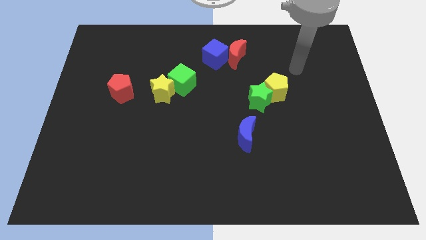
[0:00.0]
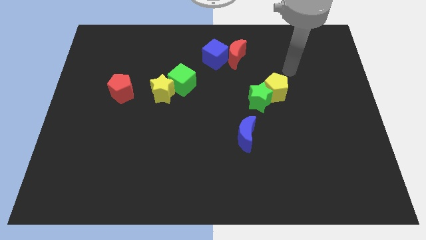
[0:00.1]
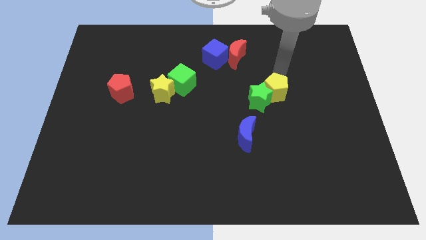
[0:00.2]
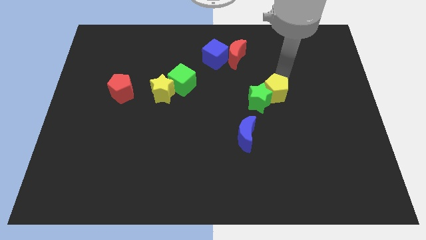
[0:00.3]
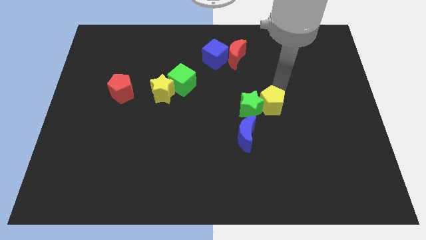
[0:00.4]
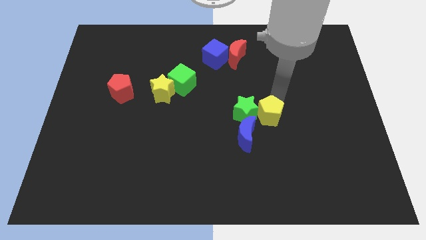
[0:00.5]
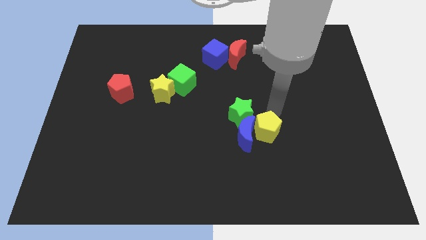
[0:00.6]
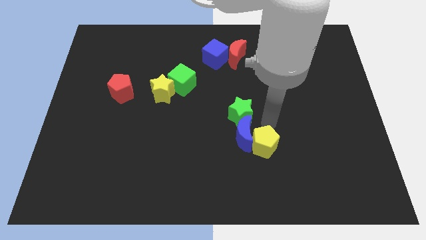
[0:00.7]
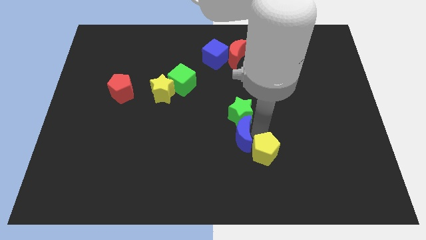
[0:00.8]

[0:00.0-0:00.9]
move the green star away from the yellow pentagon

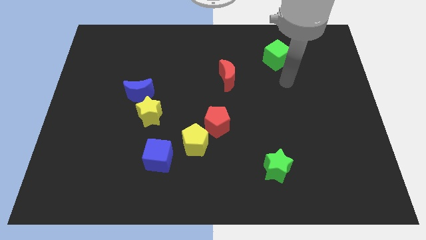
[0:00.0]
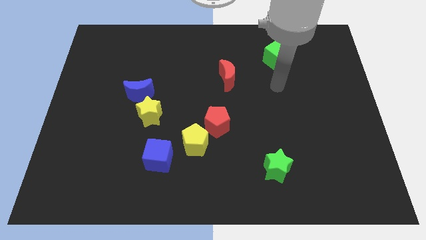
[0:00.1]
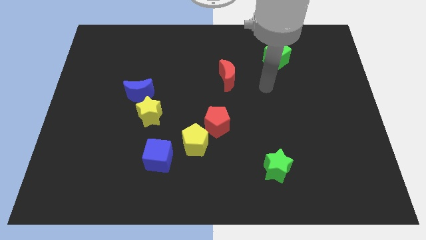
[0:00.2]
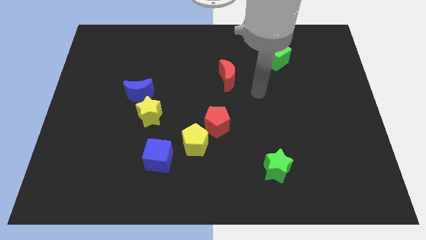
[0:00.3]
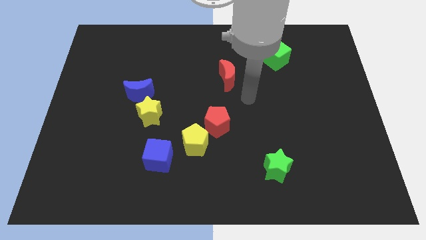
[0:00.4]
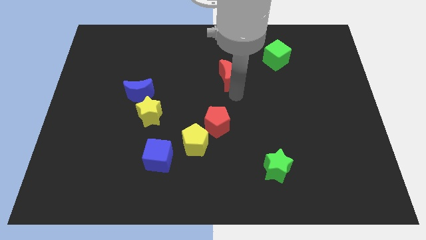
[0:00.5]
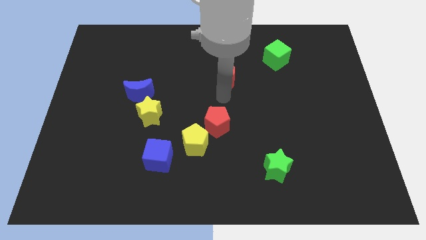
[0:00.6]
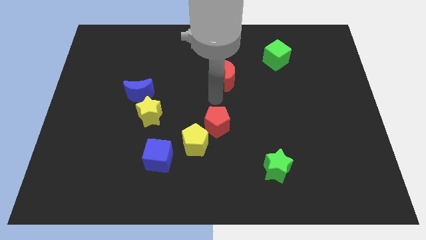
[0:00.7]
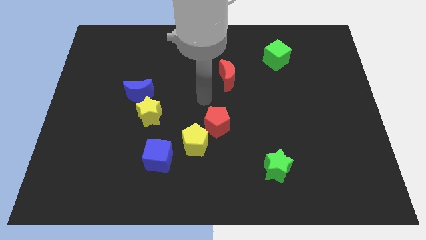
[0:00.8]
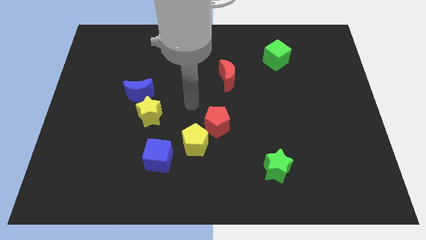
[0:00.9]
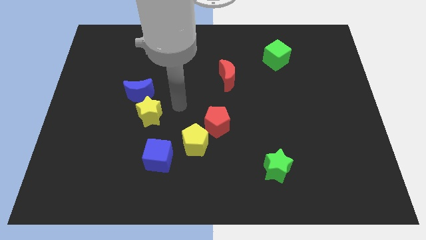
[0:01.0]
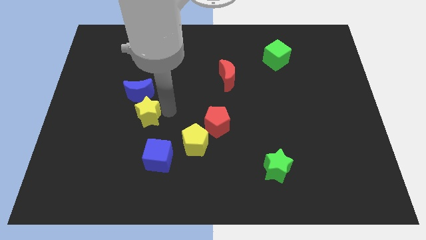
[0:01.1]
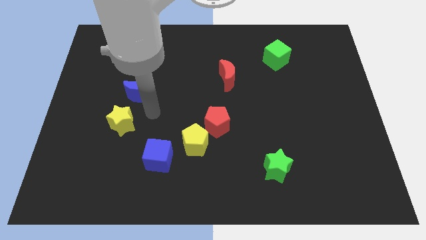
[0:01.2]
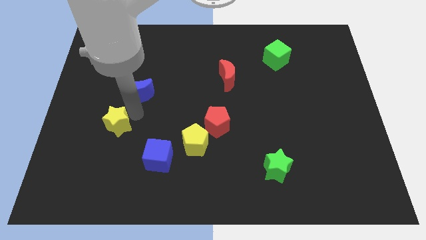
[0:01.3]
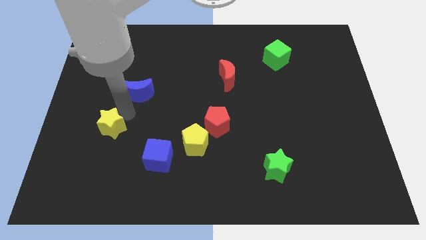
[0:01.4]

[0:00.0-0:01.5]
separate the blue moon from the yellow star

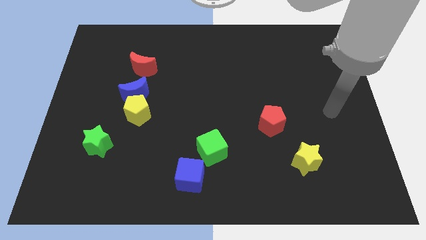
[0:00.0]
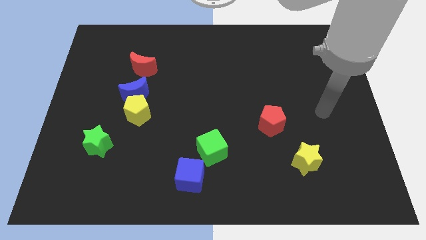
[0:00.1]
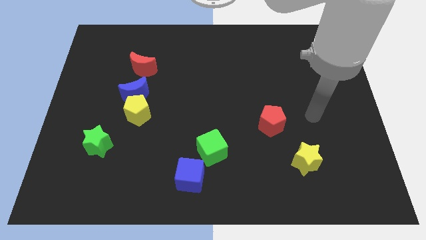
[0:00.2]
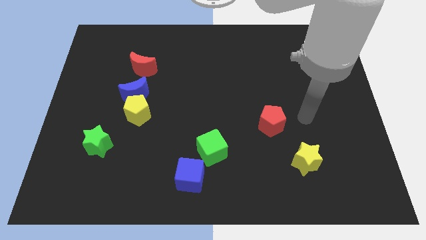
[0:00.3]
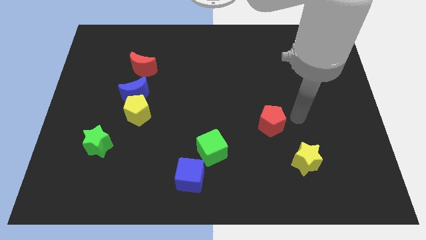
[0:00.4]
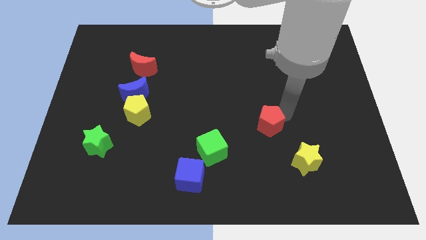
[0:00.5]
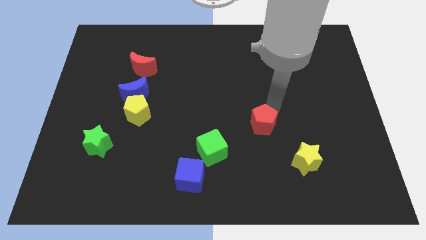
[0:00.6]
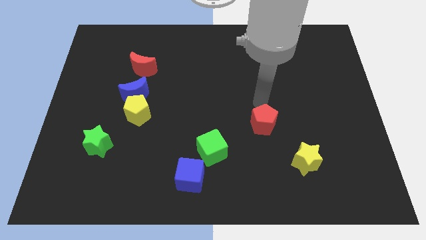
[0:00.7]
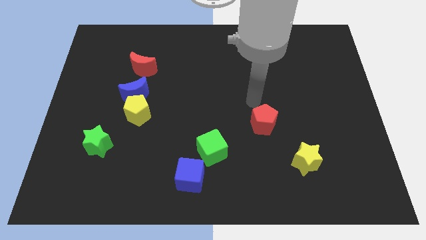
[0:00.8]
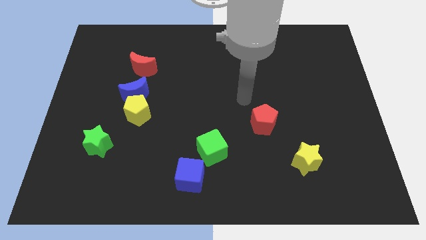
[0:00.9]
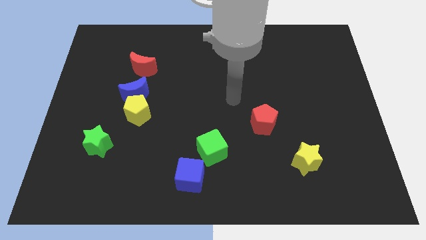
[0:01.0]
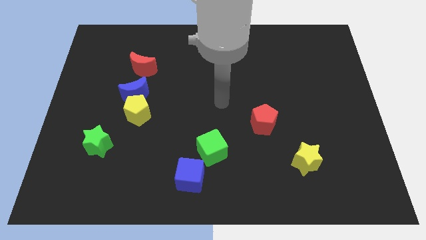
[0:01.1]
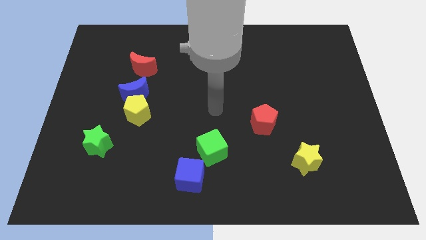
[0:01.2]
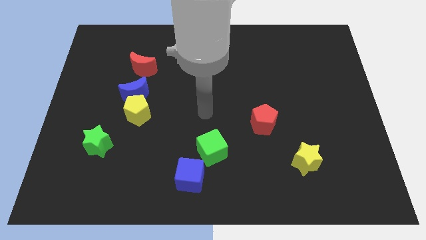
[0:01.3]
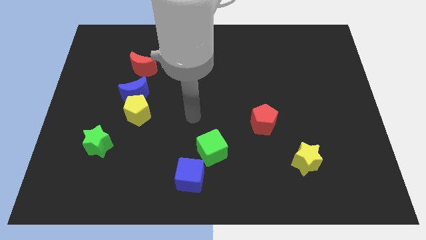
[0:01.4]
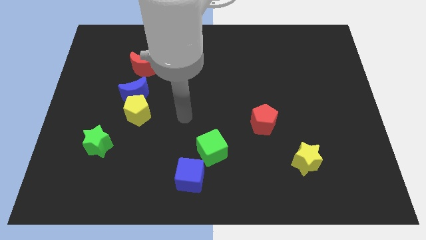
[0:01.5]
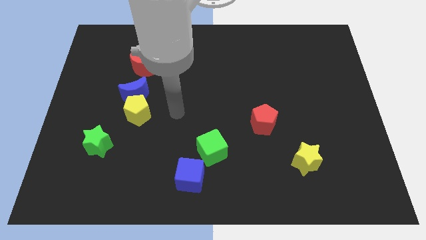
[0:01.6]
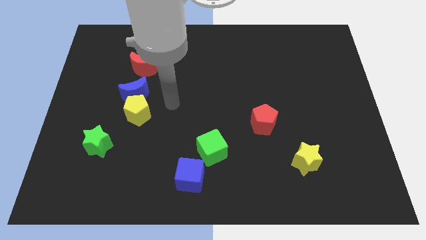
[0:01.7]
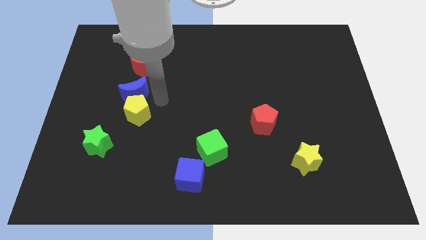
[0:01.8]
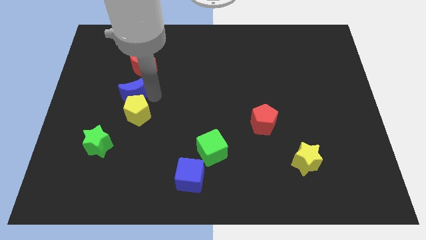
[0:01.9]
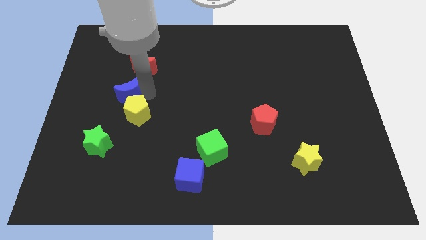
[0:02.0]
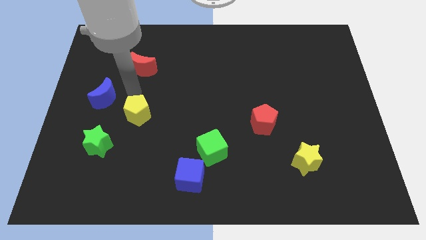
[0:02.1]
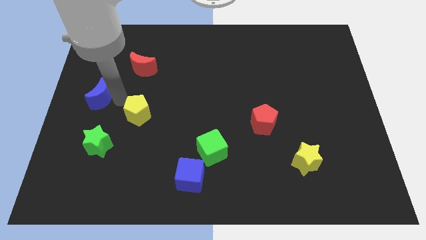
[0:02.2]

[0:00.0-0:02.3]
pull the yellow pentagon apart from the blue moon

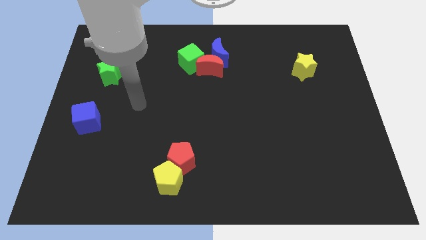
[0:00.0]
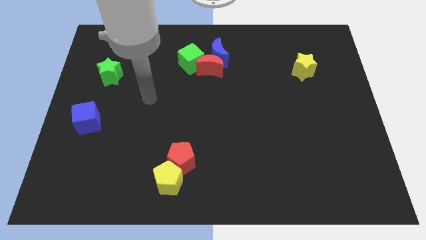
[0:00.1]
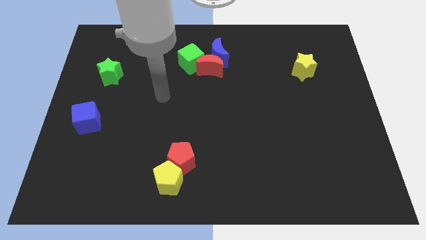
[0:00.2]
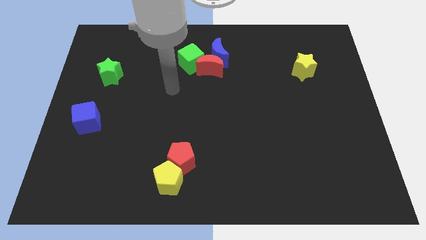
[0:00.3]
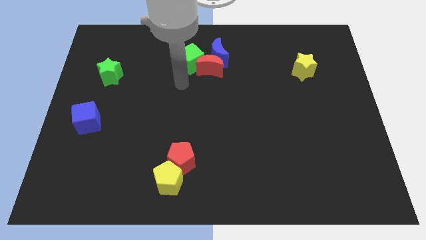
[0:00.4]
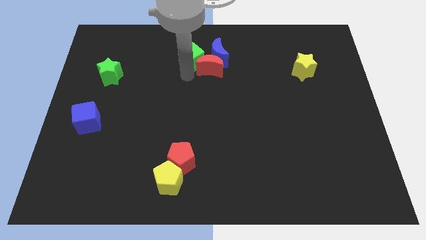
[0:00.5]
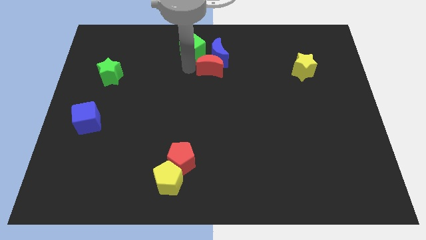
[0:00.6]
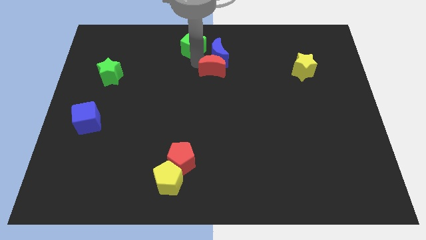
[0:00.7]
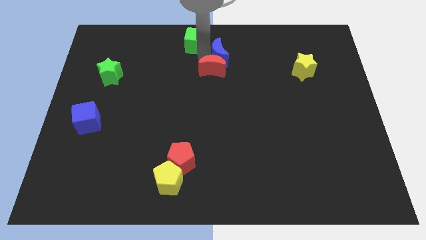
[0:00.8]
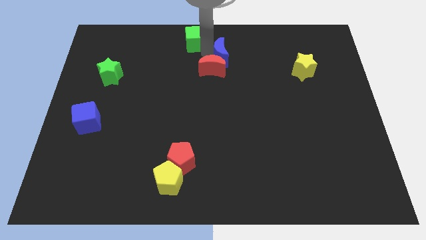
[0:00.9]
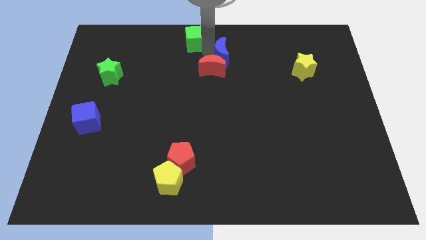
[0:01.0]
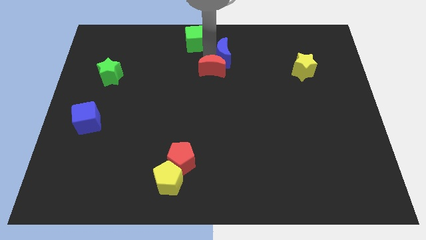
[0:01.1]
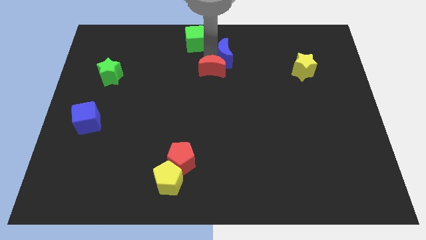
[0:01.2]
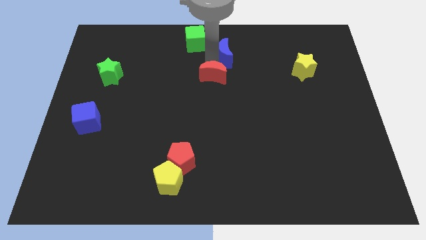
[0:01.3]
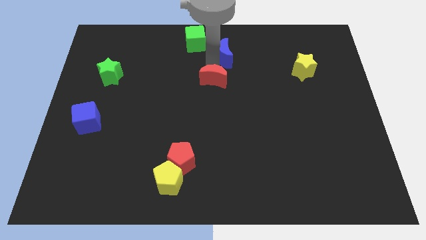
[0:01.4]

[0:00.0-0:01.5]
move the red moon away from the blue moon and green cube

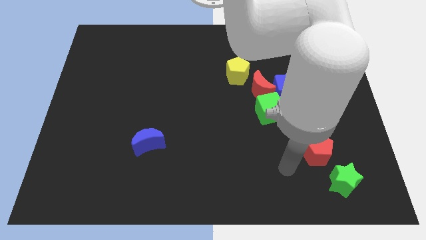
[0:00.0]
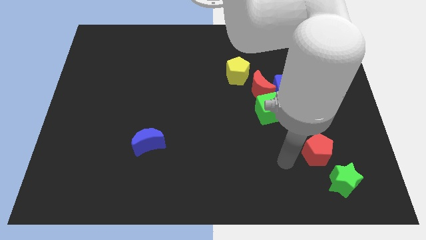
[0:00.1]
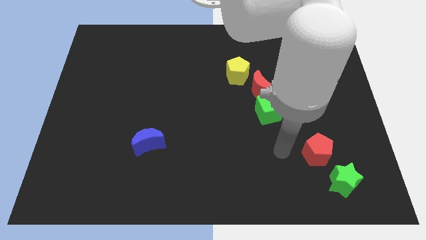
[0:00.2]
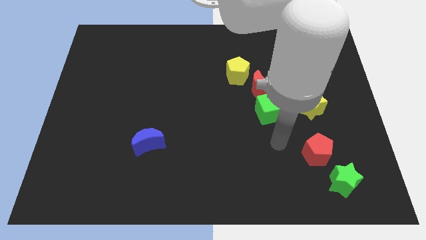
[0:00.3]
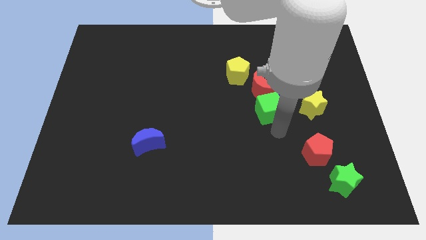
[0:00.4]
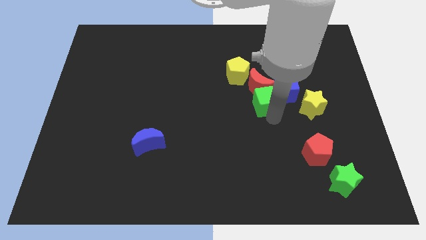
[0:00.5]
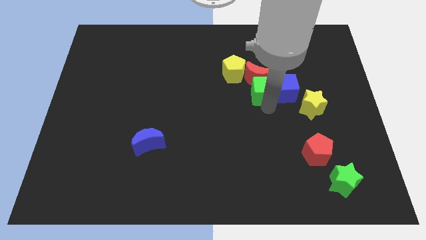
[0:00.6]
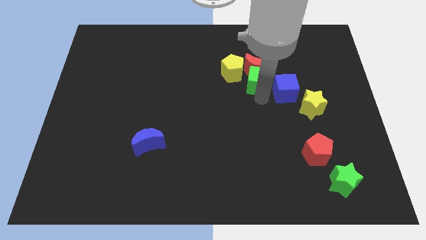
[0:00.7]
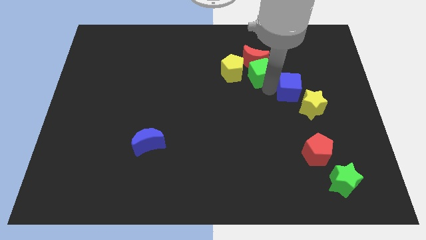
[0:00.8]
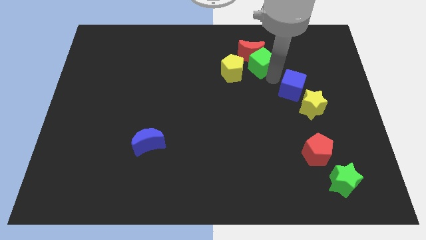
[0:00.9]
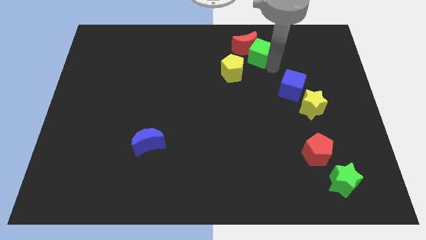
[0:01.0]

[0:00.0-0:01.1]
move the red moon away from the blue cube, green cube, and yellow pentagon

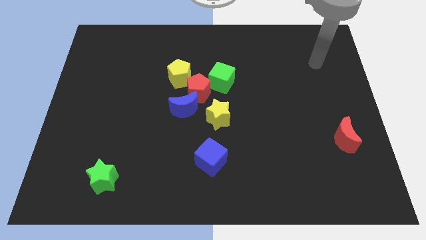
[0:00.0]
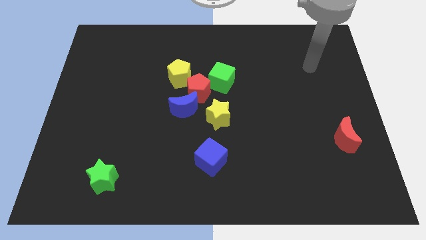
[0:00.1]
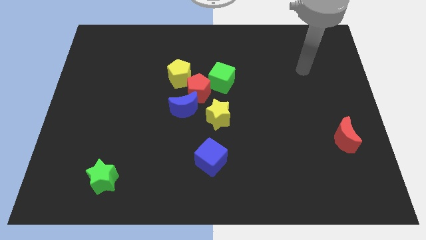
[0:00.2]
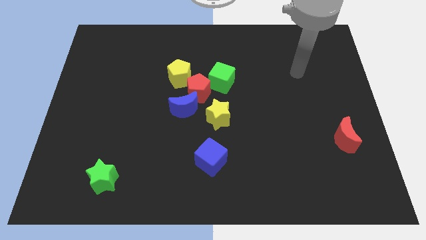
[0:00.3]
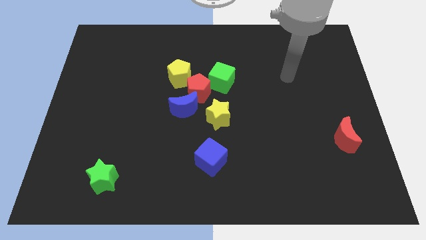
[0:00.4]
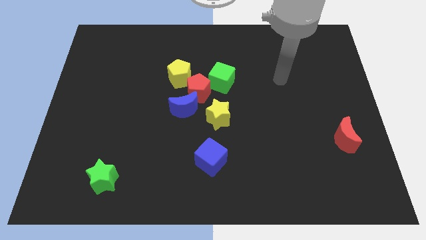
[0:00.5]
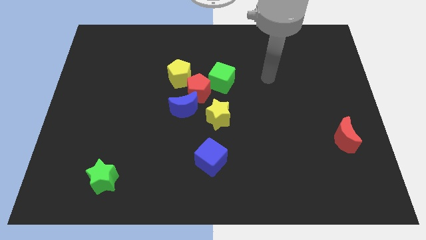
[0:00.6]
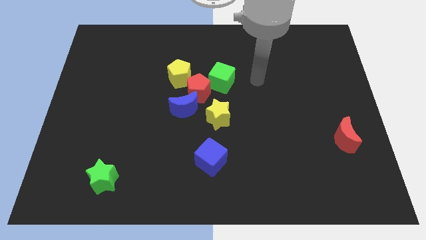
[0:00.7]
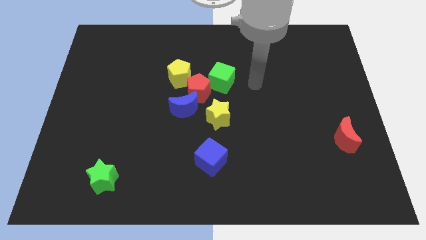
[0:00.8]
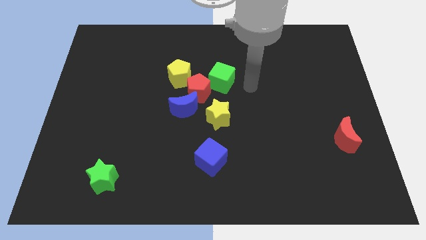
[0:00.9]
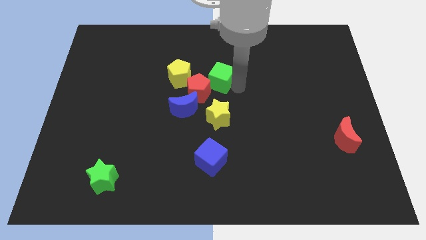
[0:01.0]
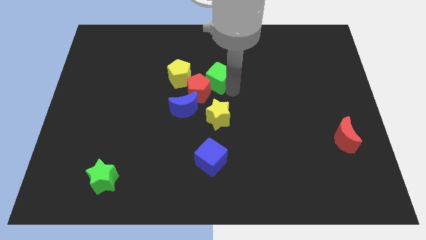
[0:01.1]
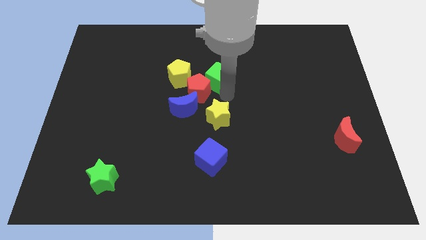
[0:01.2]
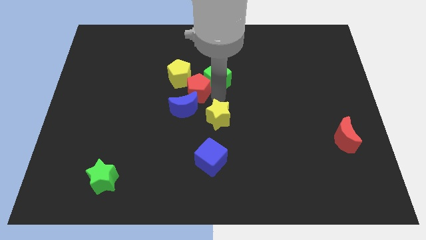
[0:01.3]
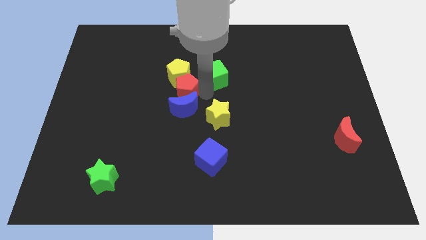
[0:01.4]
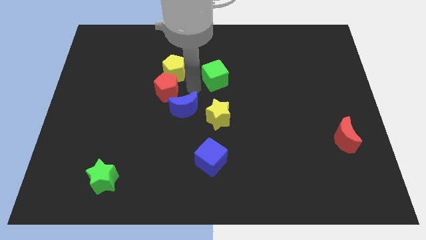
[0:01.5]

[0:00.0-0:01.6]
move the green cube away from the red pentagon

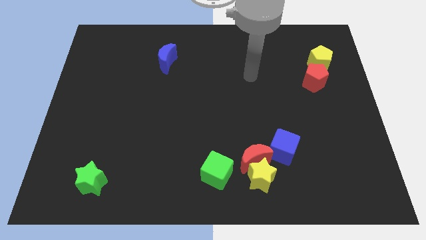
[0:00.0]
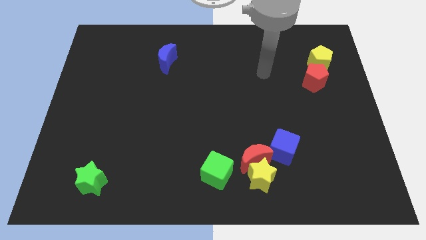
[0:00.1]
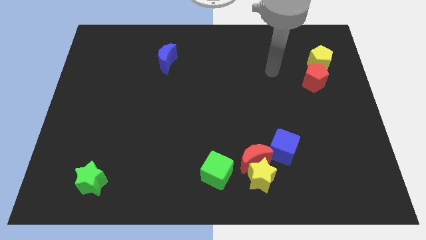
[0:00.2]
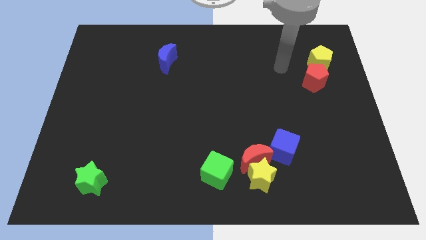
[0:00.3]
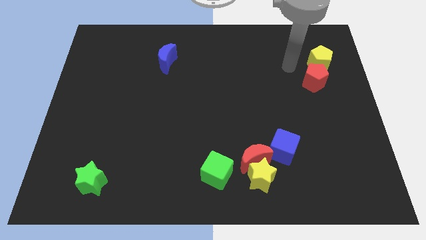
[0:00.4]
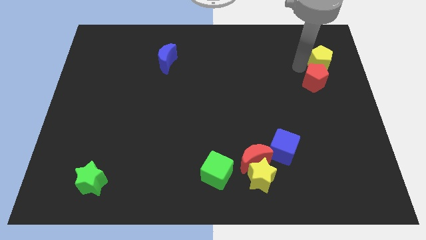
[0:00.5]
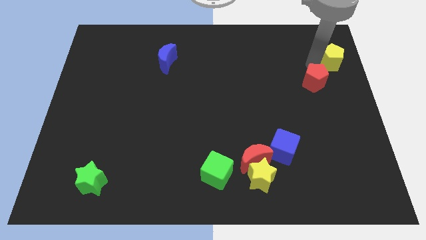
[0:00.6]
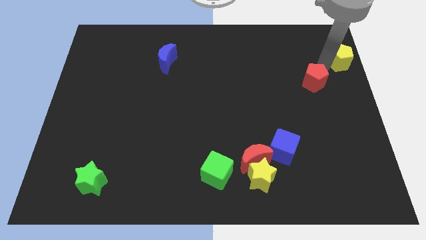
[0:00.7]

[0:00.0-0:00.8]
pull the red pentagon apart from the yellow pentagon
